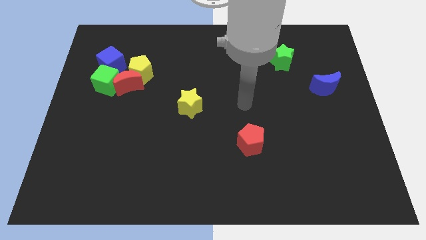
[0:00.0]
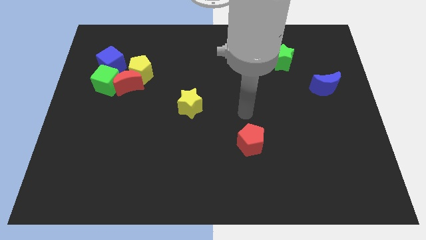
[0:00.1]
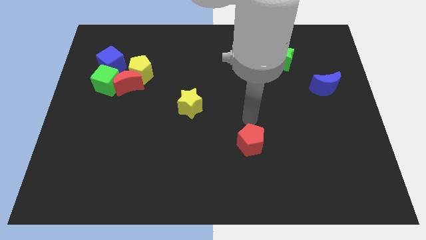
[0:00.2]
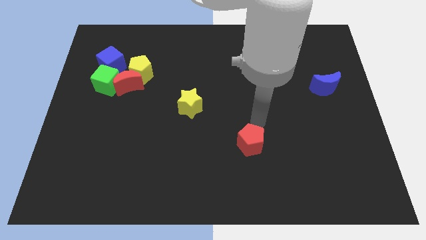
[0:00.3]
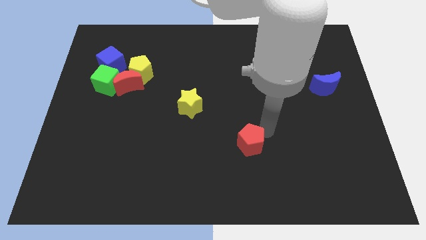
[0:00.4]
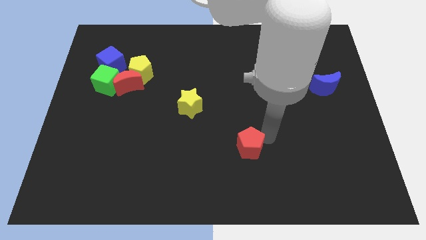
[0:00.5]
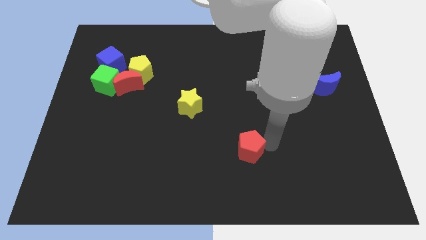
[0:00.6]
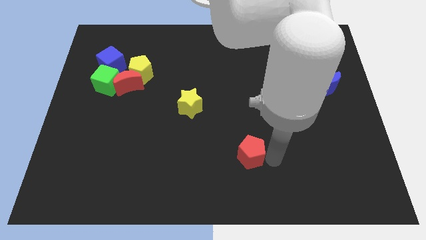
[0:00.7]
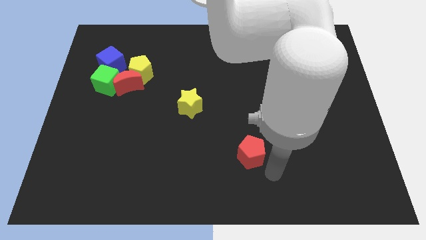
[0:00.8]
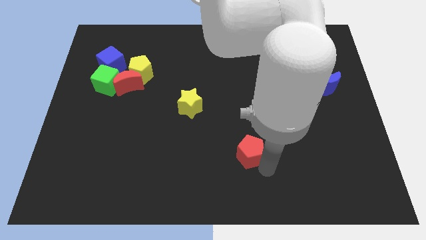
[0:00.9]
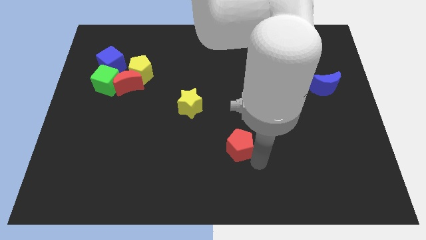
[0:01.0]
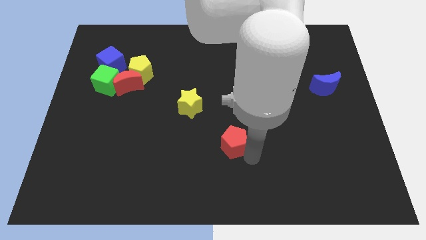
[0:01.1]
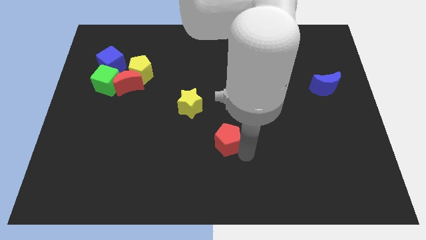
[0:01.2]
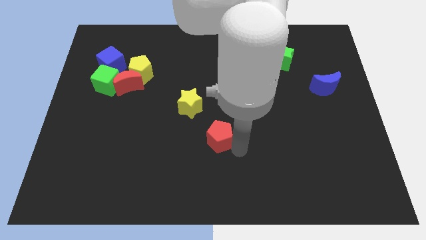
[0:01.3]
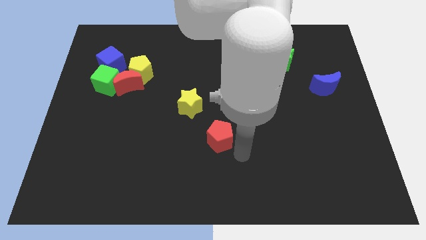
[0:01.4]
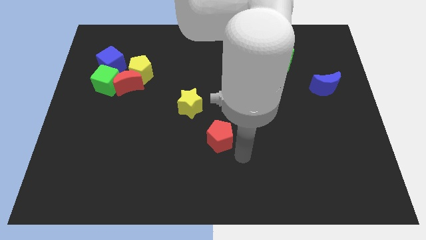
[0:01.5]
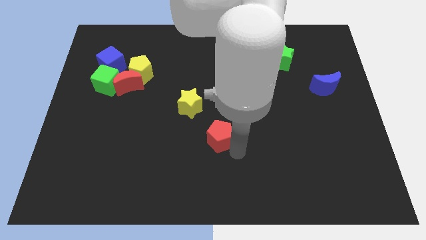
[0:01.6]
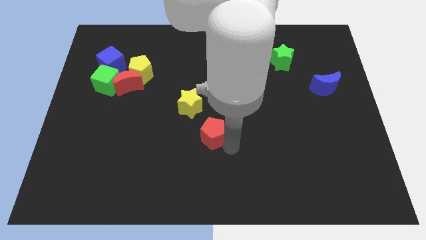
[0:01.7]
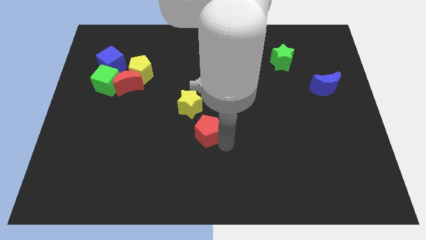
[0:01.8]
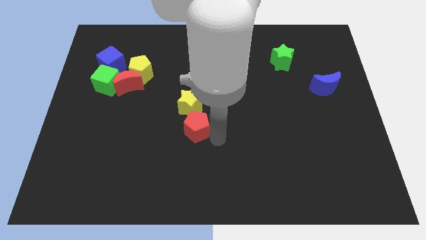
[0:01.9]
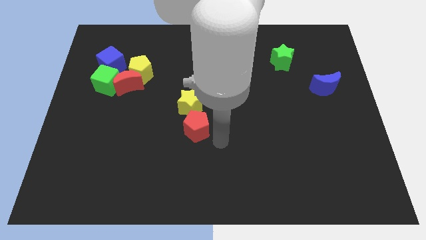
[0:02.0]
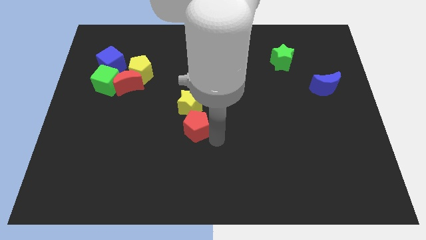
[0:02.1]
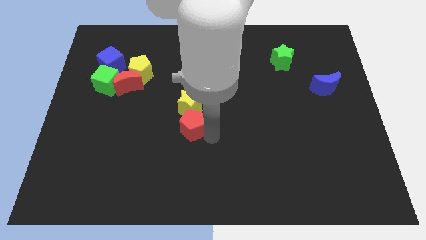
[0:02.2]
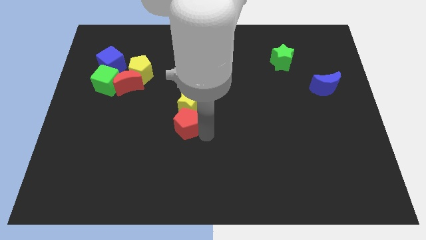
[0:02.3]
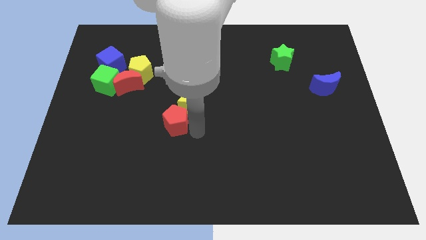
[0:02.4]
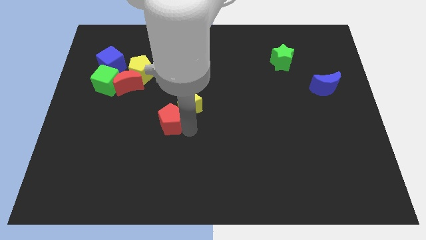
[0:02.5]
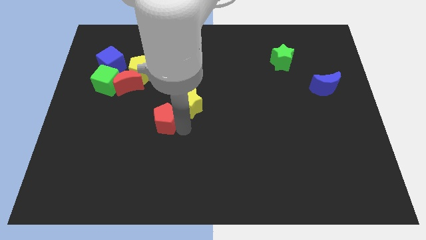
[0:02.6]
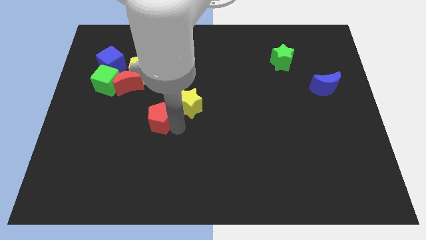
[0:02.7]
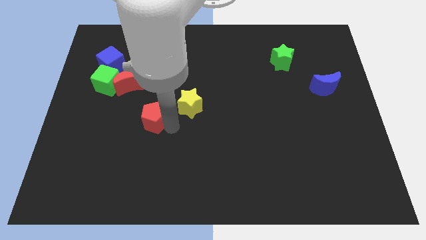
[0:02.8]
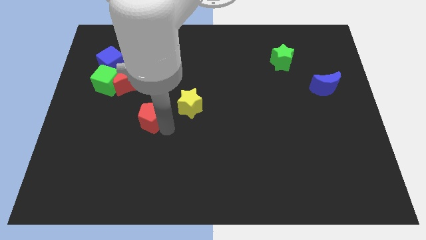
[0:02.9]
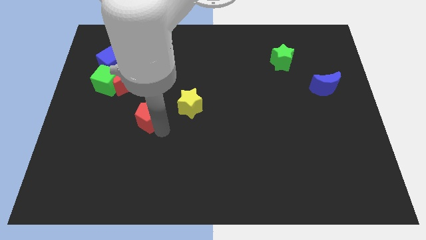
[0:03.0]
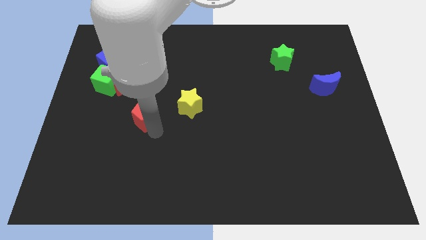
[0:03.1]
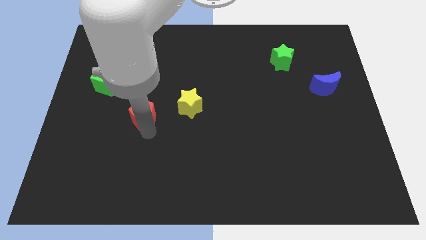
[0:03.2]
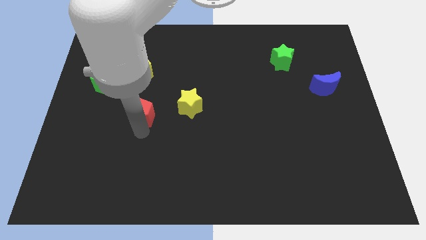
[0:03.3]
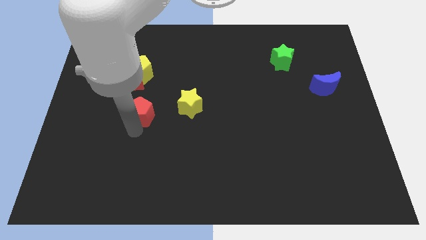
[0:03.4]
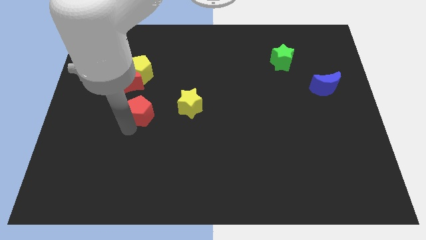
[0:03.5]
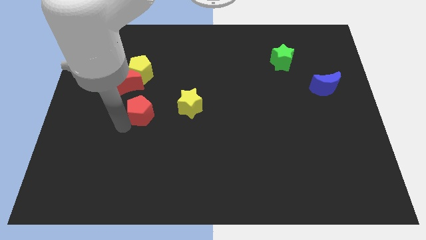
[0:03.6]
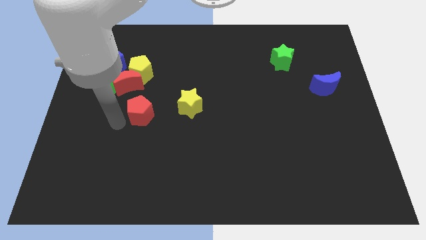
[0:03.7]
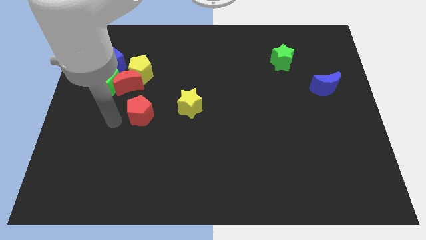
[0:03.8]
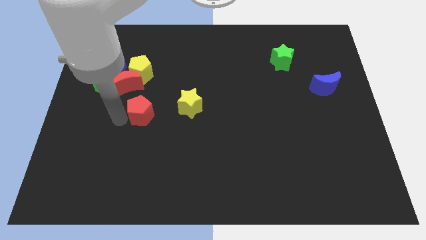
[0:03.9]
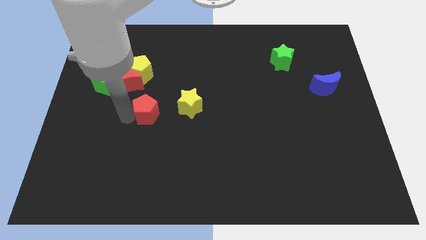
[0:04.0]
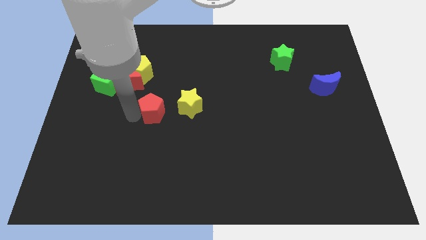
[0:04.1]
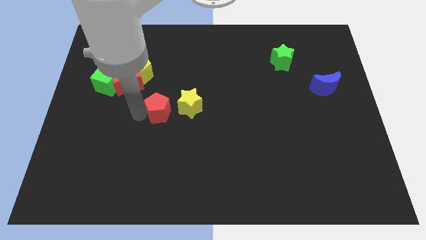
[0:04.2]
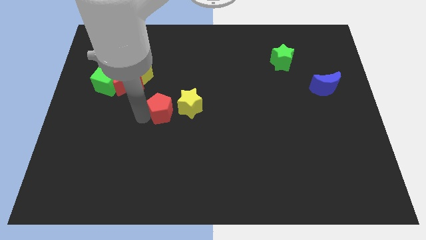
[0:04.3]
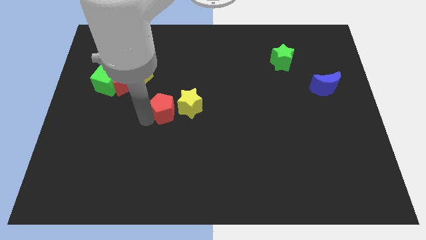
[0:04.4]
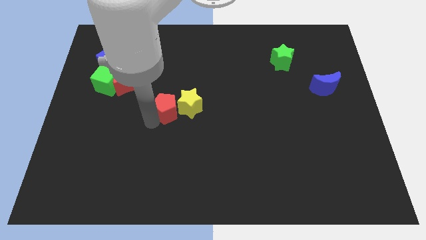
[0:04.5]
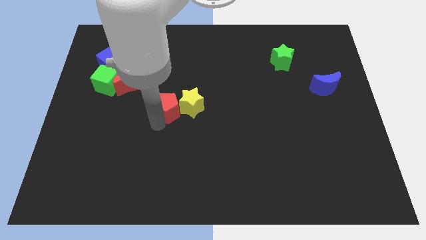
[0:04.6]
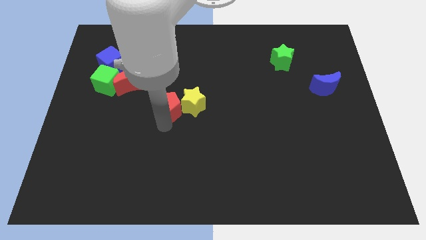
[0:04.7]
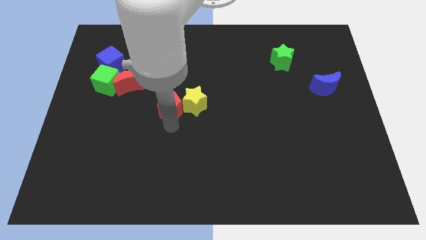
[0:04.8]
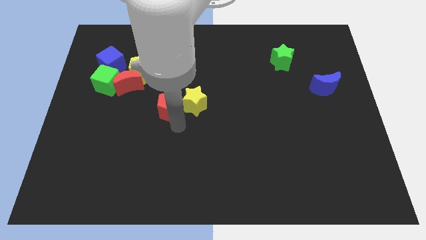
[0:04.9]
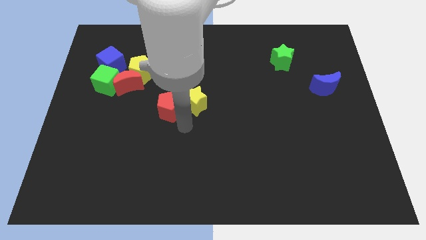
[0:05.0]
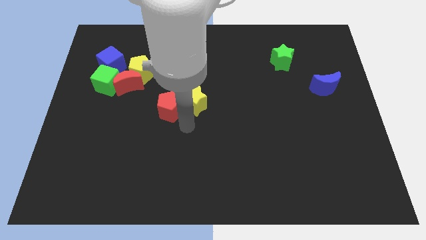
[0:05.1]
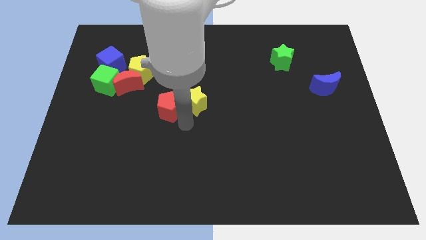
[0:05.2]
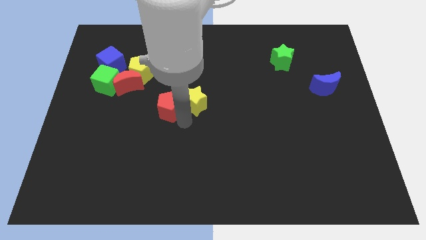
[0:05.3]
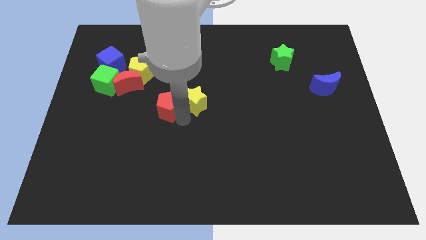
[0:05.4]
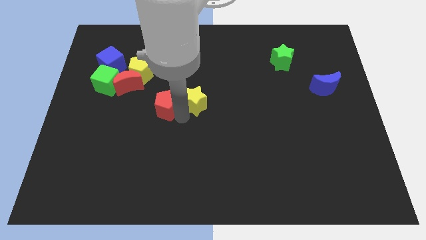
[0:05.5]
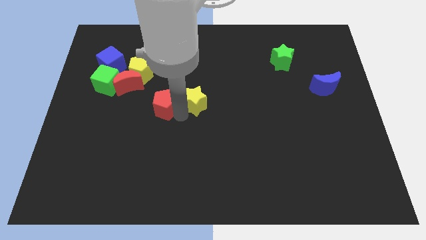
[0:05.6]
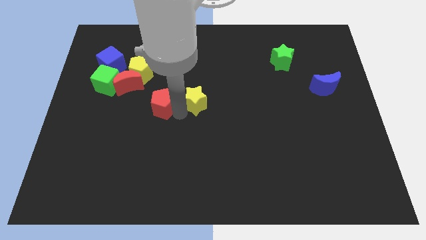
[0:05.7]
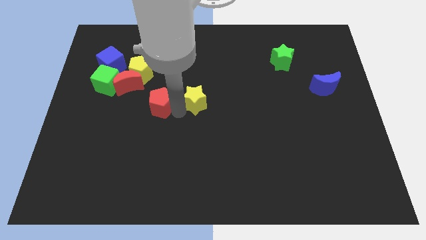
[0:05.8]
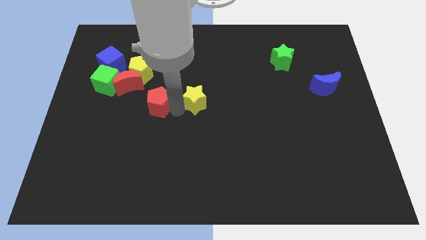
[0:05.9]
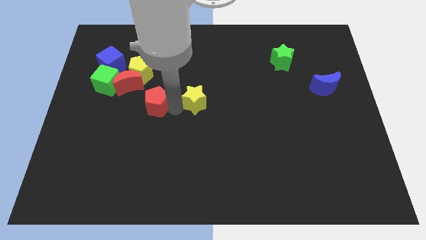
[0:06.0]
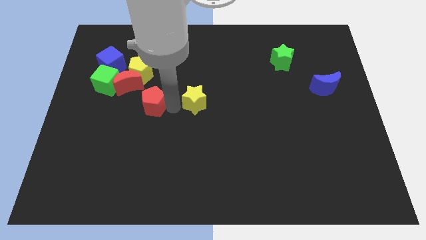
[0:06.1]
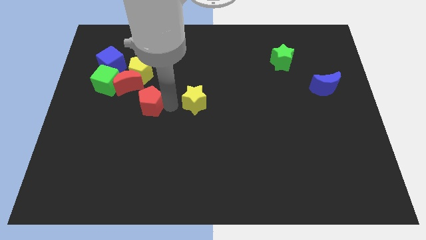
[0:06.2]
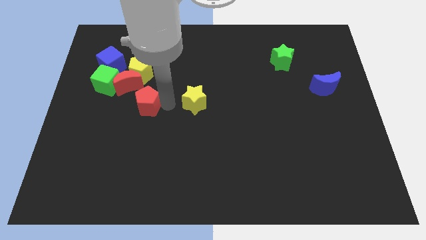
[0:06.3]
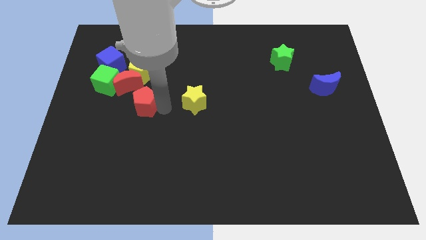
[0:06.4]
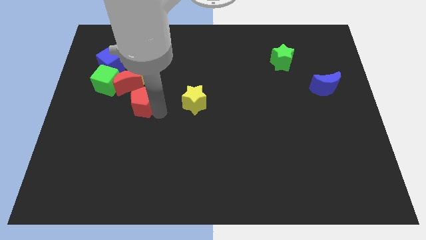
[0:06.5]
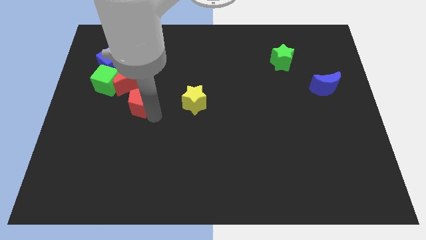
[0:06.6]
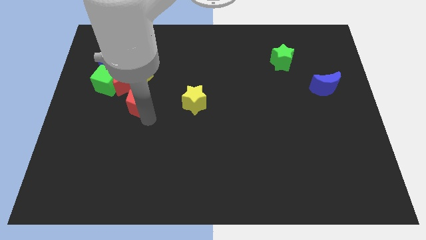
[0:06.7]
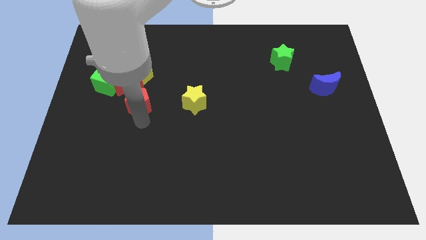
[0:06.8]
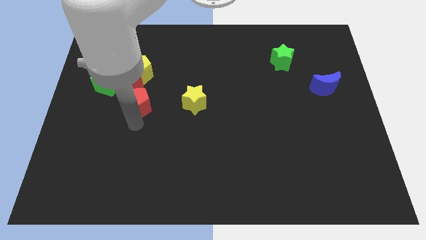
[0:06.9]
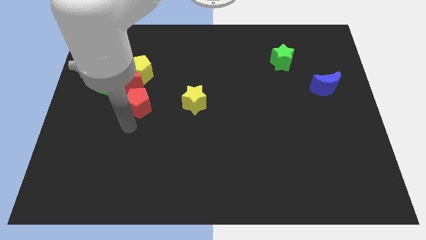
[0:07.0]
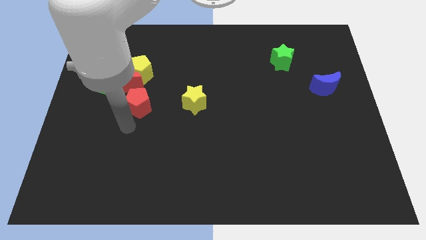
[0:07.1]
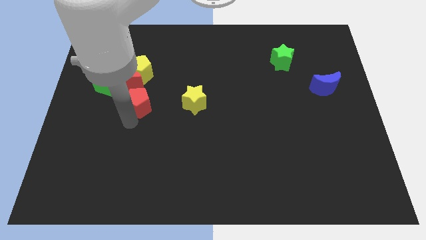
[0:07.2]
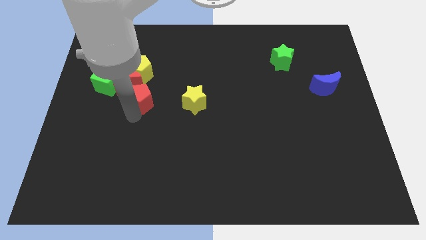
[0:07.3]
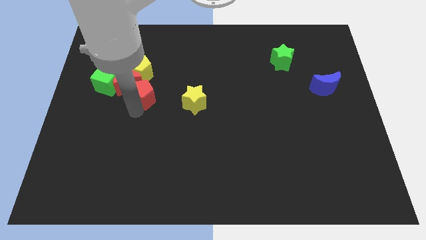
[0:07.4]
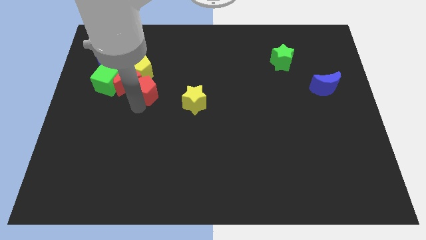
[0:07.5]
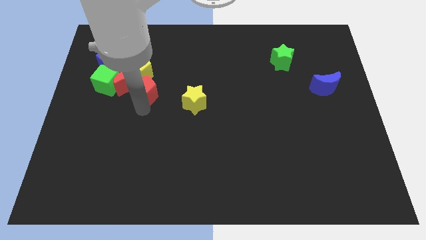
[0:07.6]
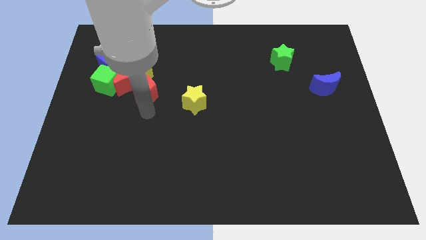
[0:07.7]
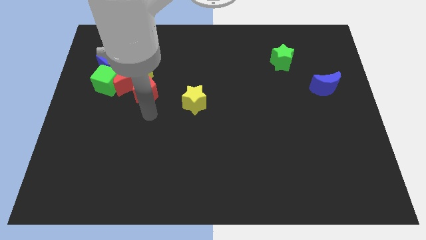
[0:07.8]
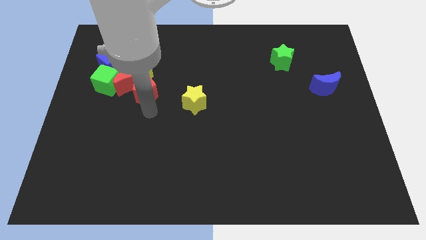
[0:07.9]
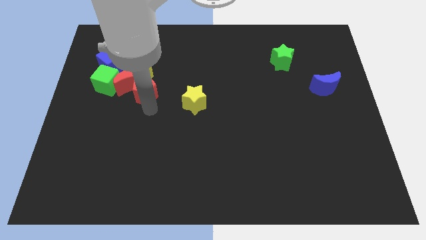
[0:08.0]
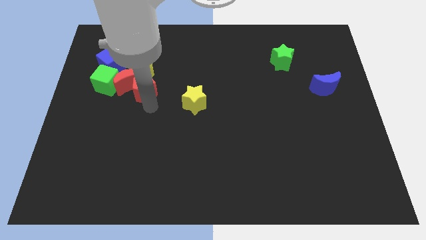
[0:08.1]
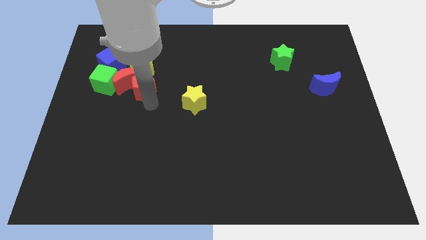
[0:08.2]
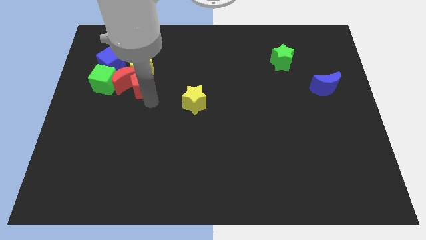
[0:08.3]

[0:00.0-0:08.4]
put the red pentagon towards the yellow pentagon
